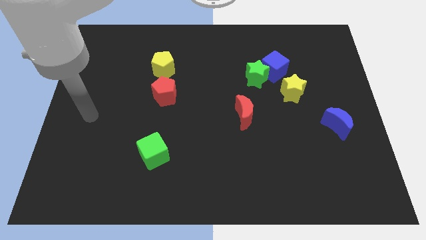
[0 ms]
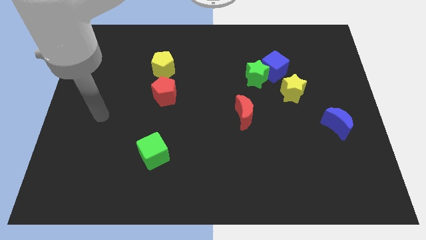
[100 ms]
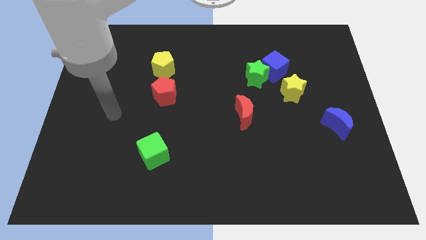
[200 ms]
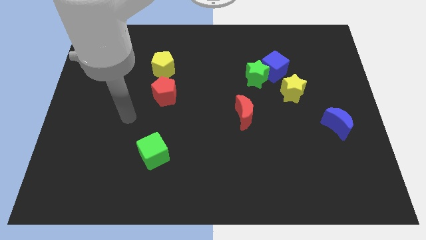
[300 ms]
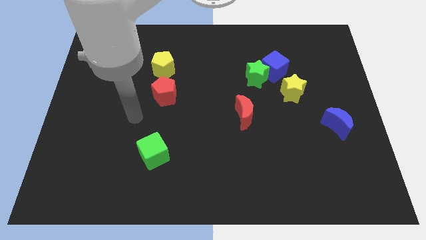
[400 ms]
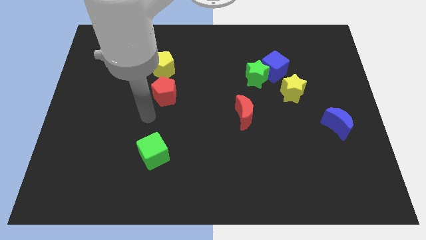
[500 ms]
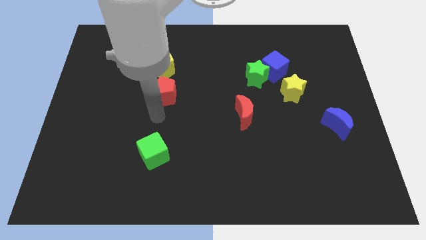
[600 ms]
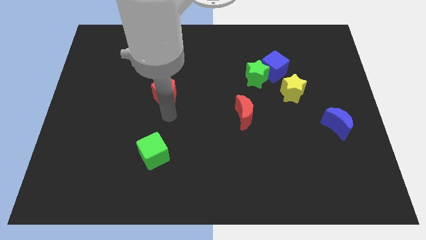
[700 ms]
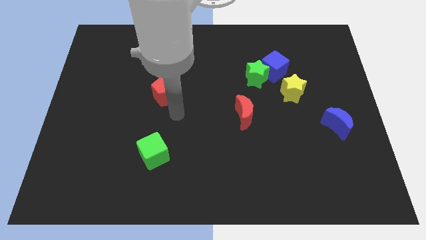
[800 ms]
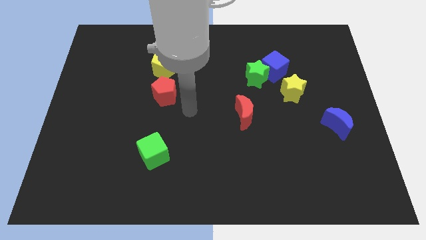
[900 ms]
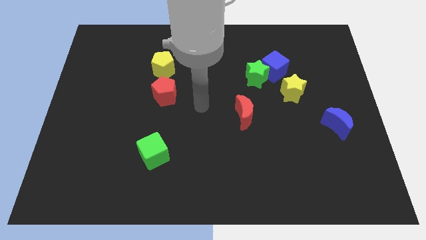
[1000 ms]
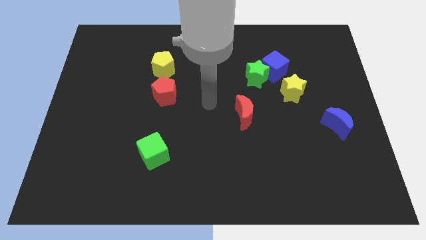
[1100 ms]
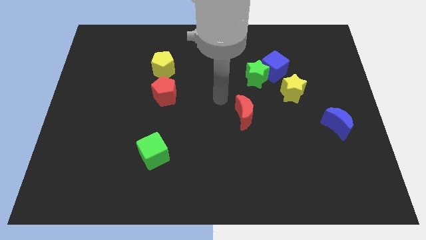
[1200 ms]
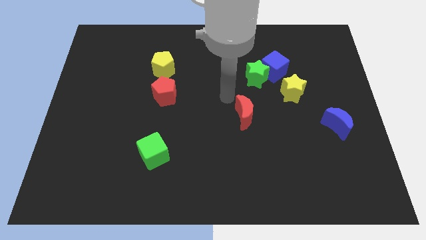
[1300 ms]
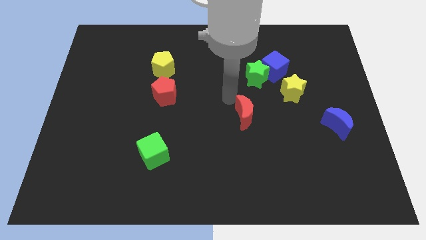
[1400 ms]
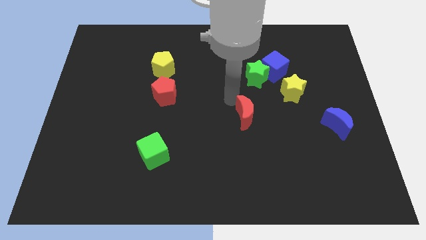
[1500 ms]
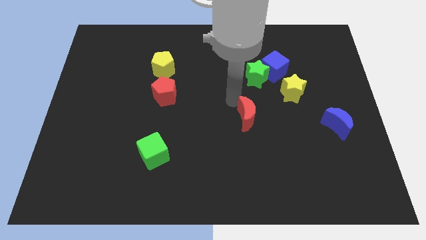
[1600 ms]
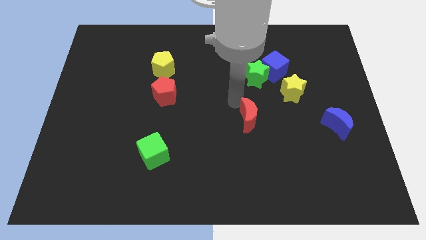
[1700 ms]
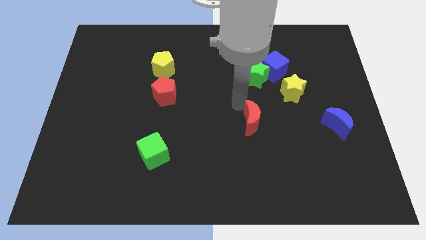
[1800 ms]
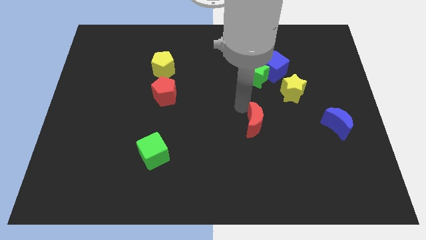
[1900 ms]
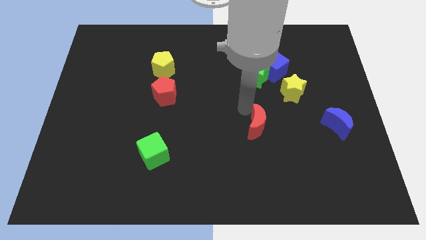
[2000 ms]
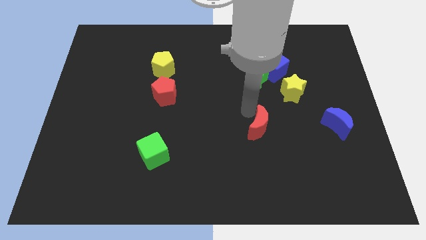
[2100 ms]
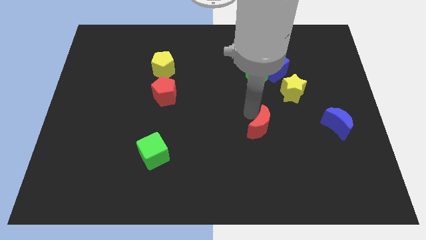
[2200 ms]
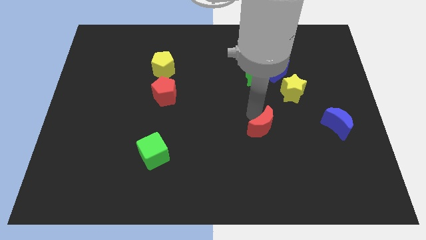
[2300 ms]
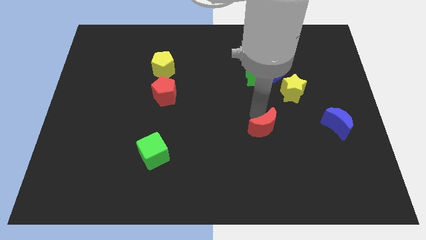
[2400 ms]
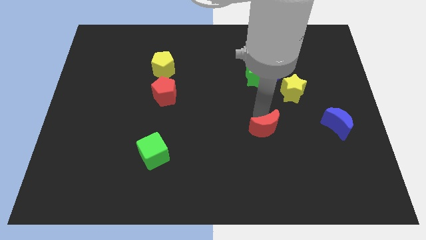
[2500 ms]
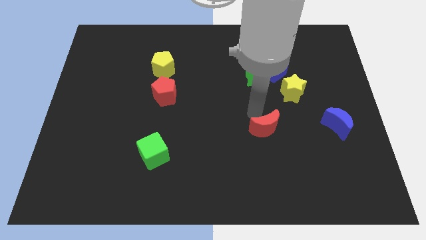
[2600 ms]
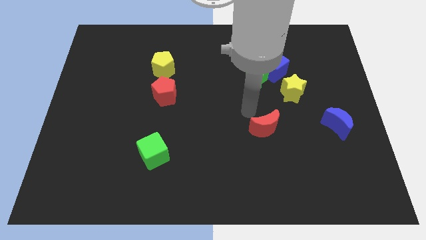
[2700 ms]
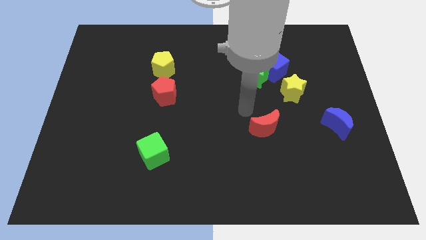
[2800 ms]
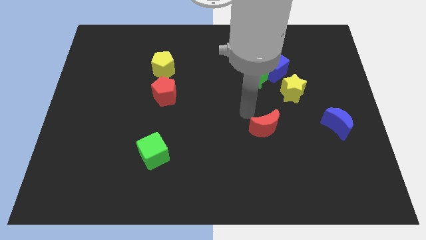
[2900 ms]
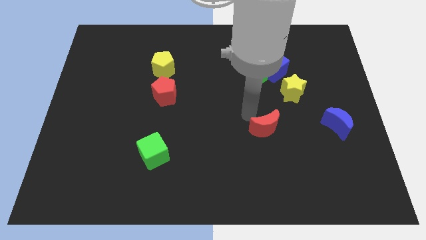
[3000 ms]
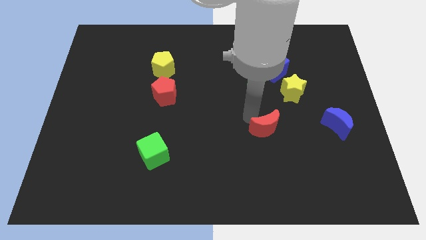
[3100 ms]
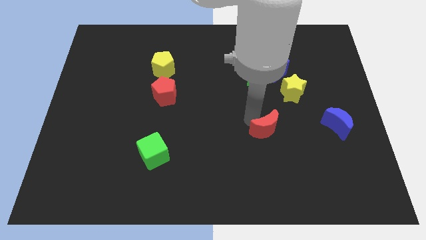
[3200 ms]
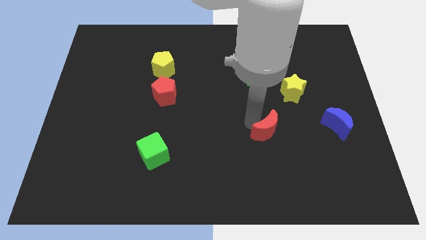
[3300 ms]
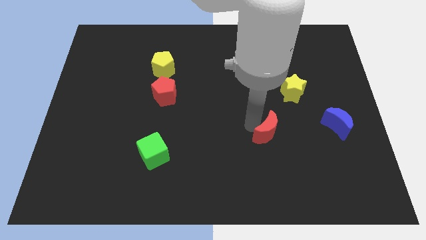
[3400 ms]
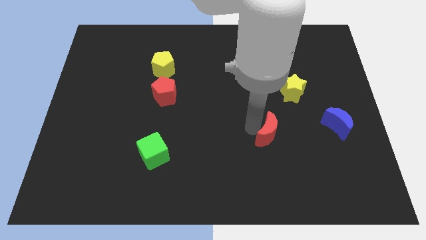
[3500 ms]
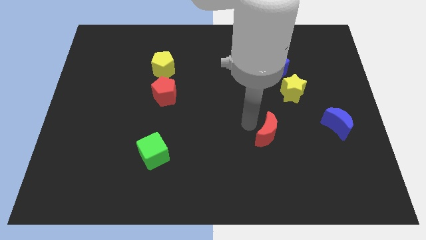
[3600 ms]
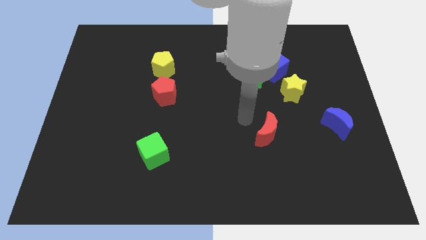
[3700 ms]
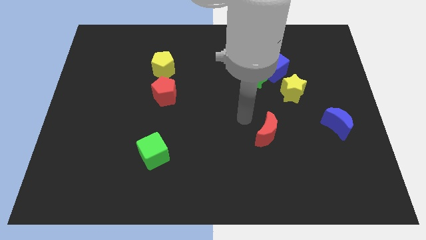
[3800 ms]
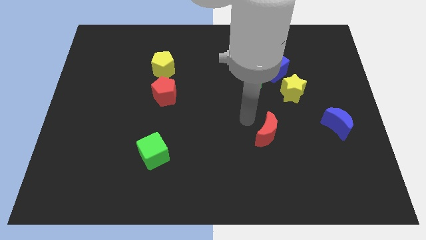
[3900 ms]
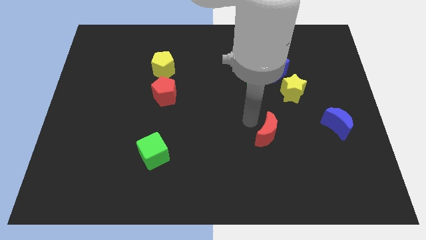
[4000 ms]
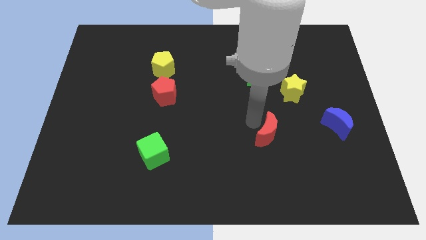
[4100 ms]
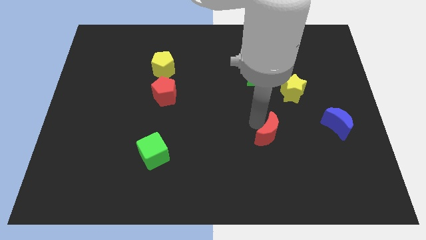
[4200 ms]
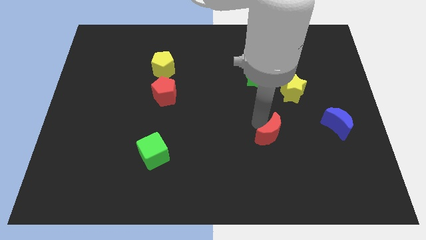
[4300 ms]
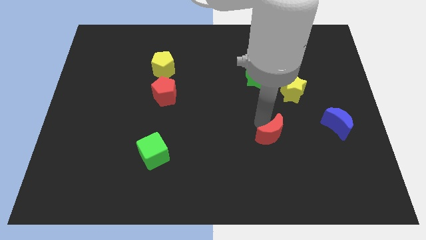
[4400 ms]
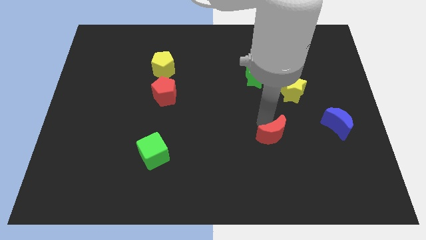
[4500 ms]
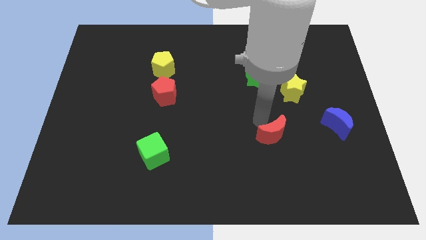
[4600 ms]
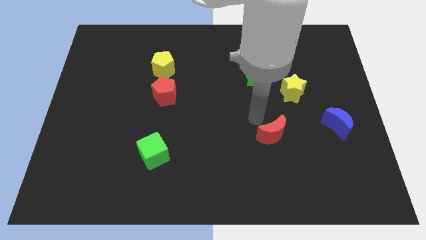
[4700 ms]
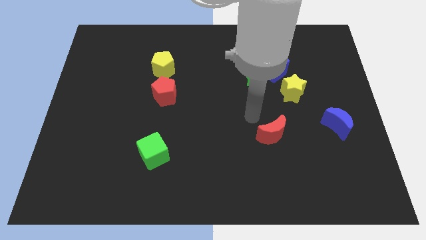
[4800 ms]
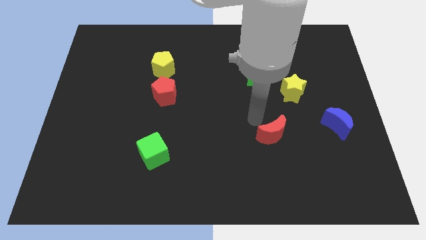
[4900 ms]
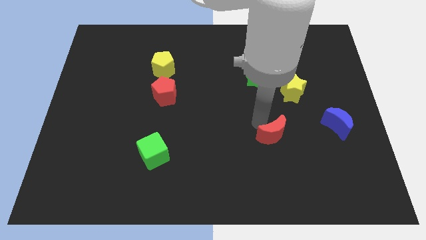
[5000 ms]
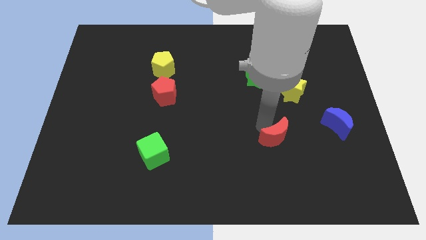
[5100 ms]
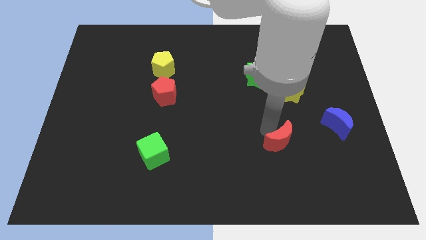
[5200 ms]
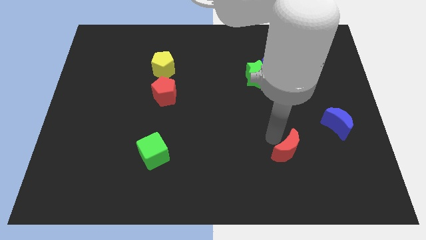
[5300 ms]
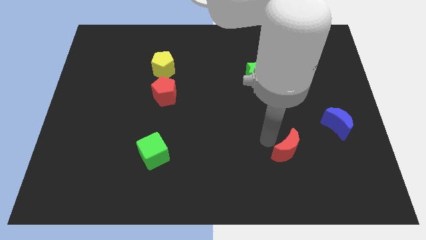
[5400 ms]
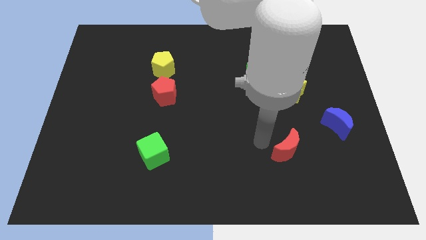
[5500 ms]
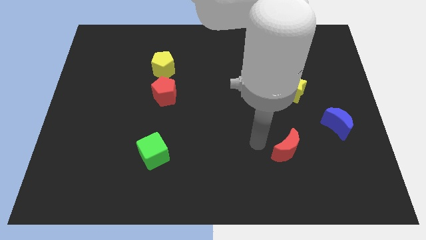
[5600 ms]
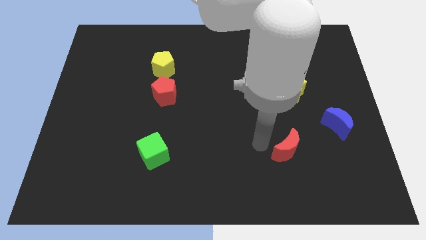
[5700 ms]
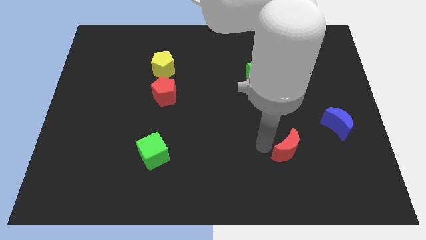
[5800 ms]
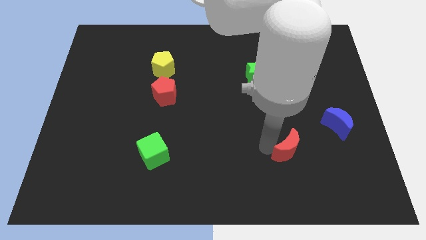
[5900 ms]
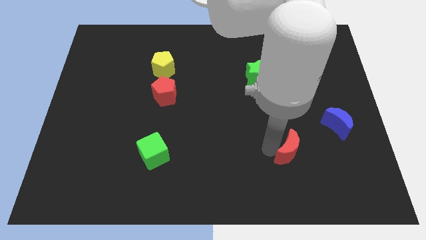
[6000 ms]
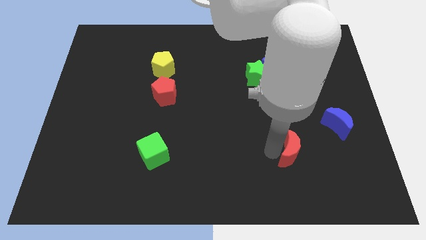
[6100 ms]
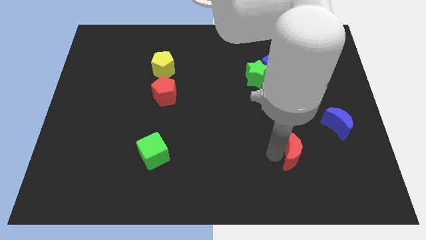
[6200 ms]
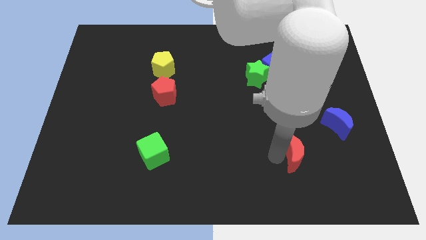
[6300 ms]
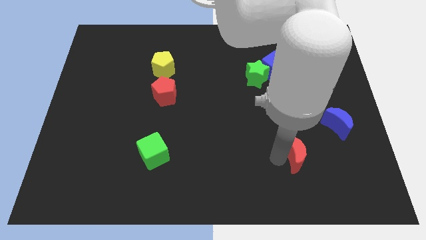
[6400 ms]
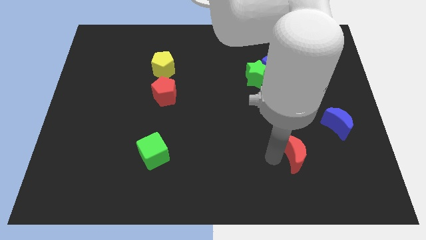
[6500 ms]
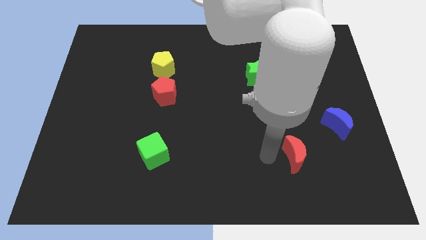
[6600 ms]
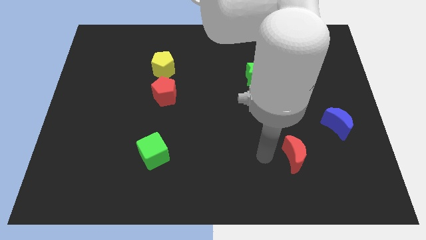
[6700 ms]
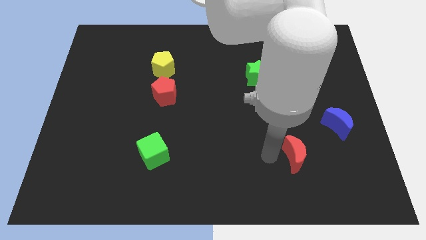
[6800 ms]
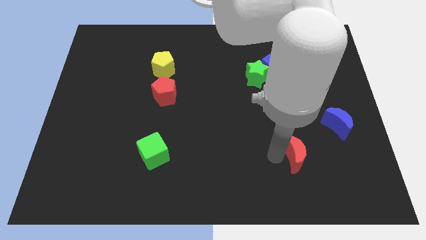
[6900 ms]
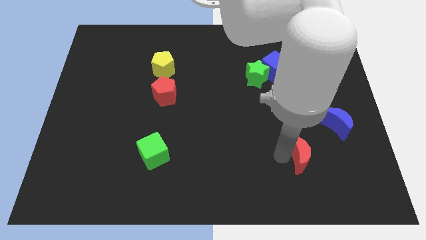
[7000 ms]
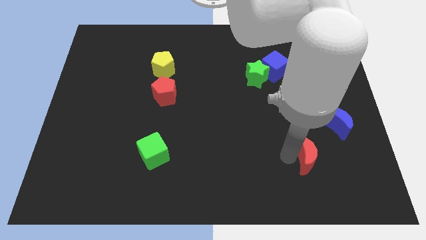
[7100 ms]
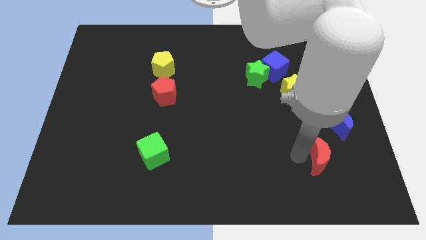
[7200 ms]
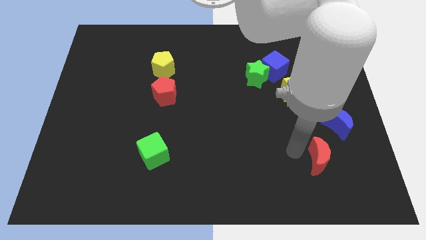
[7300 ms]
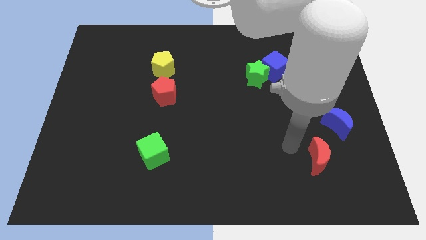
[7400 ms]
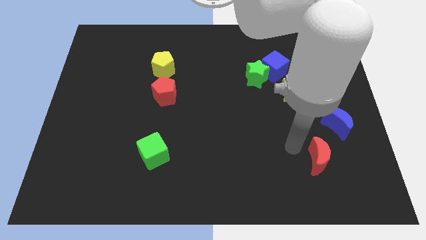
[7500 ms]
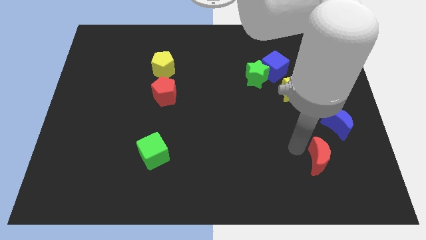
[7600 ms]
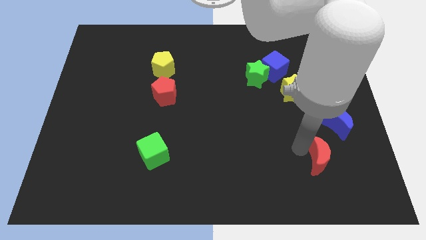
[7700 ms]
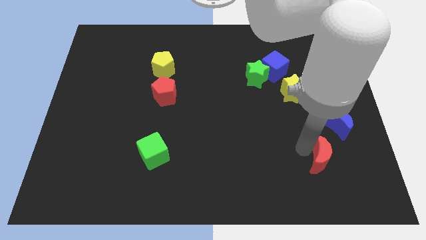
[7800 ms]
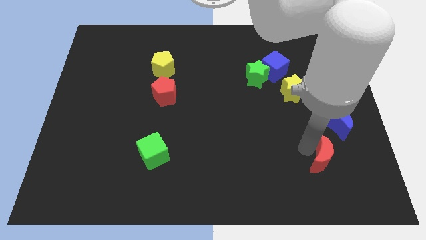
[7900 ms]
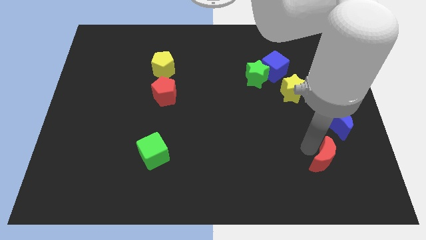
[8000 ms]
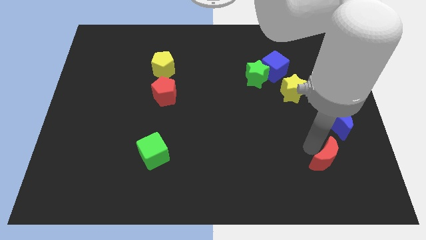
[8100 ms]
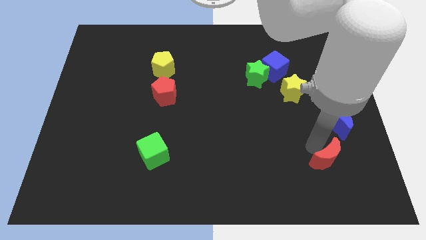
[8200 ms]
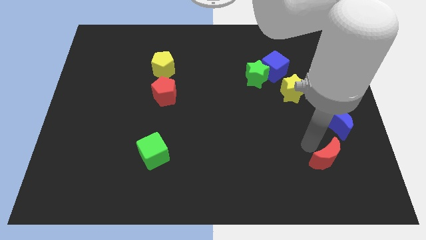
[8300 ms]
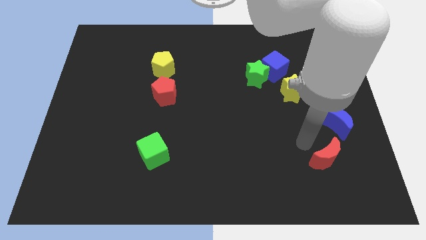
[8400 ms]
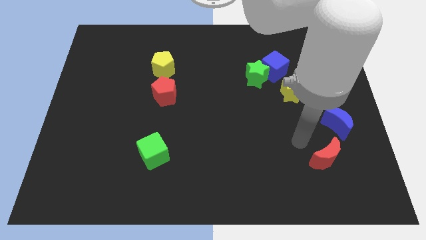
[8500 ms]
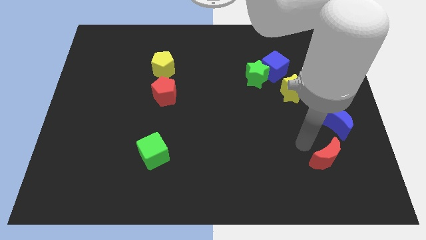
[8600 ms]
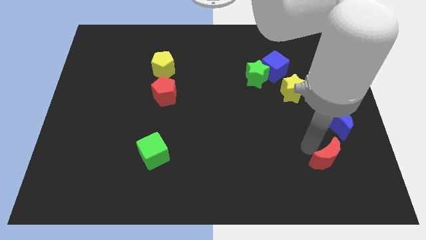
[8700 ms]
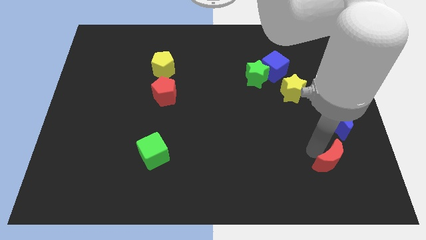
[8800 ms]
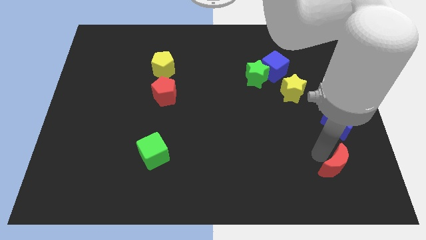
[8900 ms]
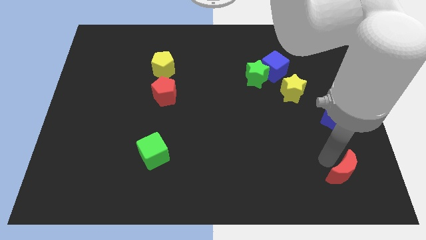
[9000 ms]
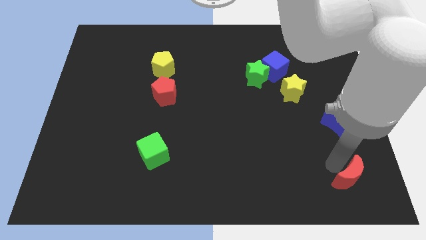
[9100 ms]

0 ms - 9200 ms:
slide the red moon to the bottom right corner
